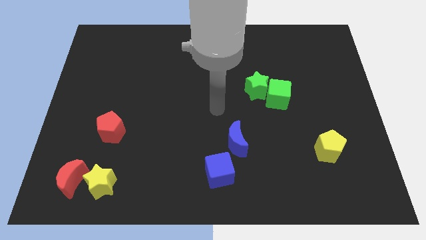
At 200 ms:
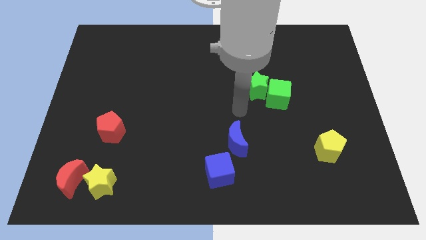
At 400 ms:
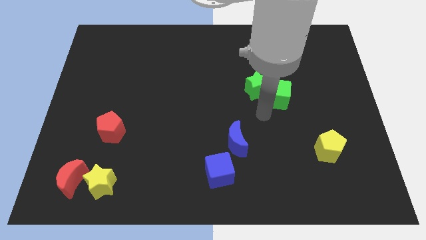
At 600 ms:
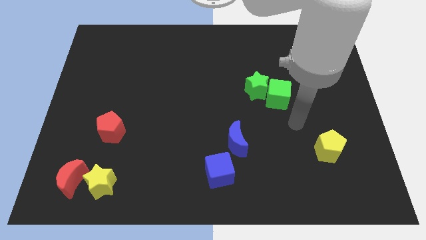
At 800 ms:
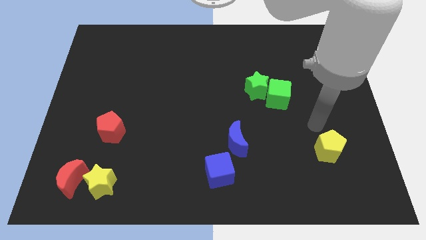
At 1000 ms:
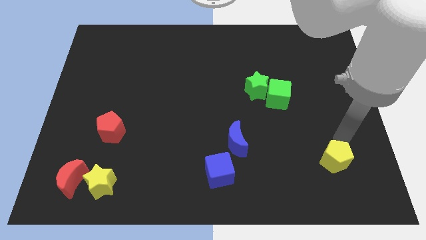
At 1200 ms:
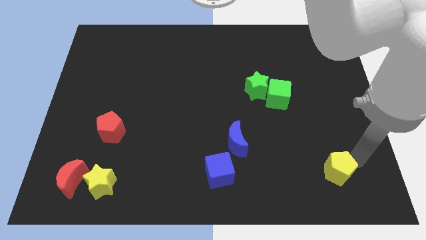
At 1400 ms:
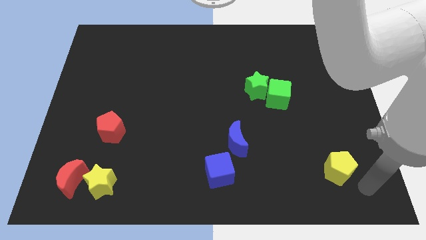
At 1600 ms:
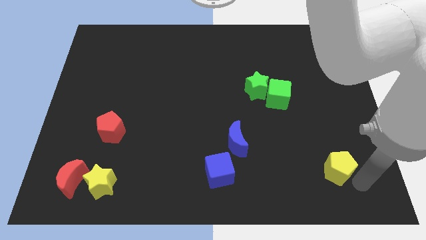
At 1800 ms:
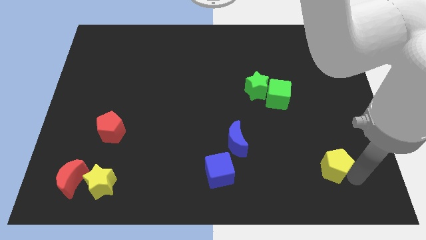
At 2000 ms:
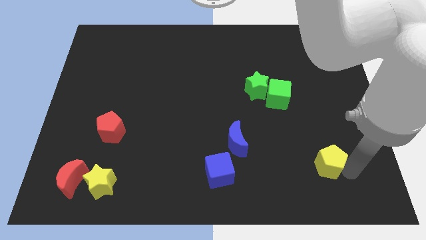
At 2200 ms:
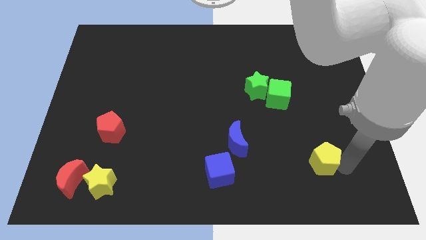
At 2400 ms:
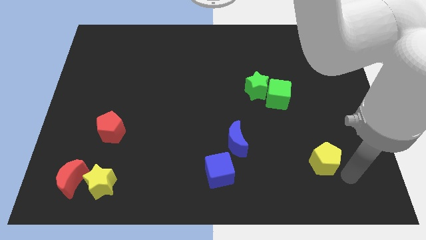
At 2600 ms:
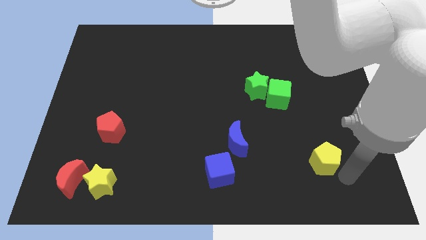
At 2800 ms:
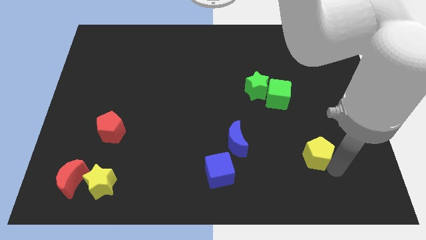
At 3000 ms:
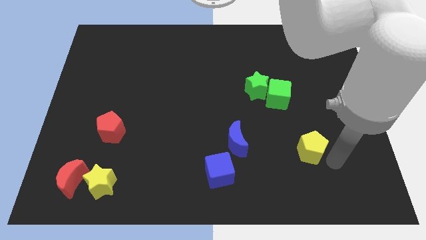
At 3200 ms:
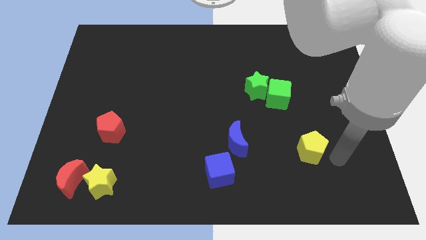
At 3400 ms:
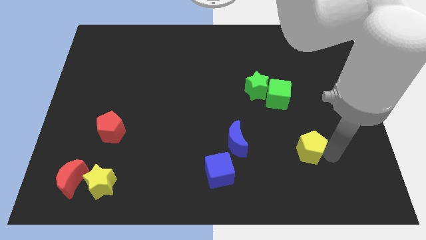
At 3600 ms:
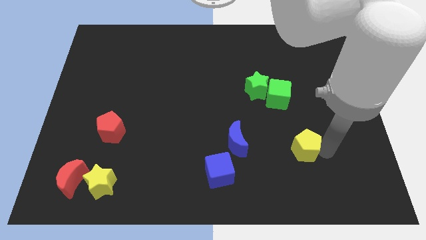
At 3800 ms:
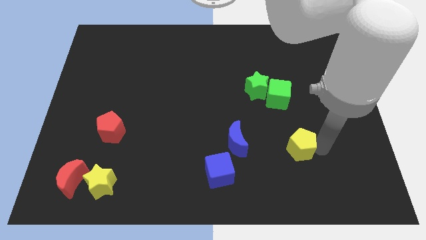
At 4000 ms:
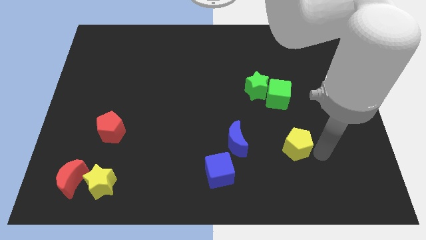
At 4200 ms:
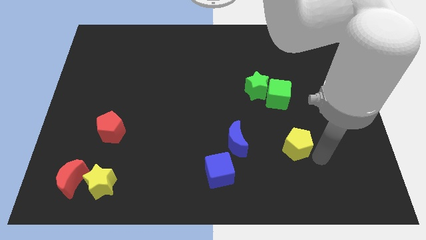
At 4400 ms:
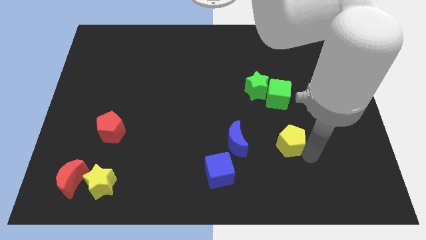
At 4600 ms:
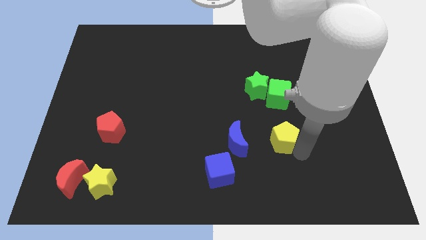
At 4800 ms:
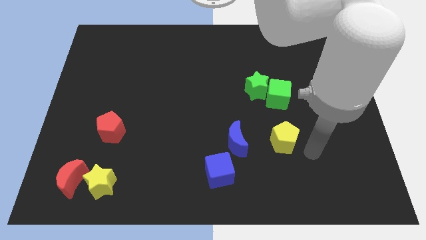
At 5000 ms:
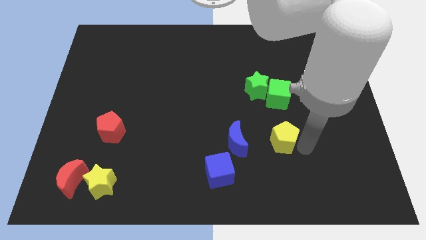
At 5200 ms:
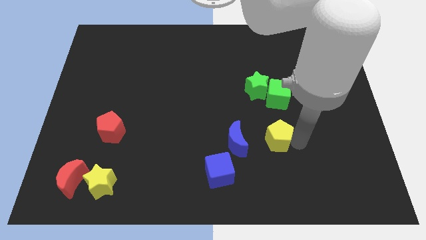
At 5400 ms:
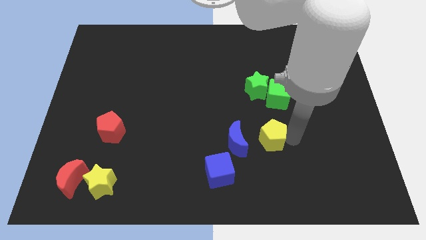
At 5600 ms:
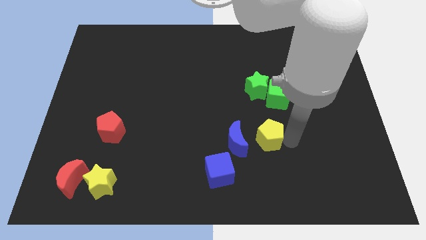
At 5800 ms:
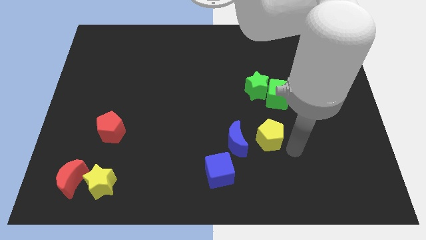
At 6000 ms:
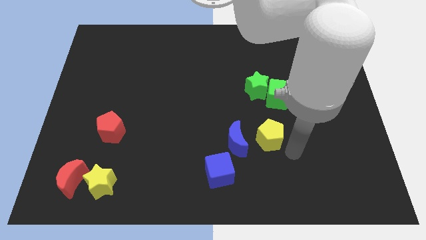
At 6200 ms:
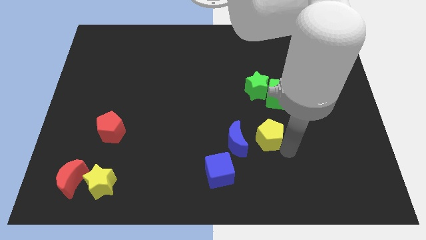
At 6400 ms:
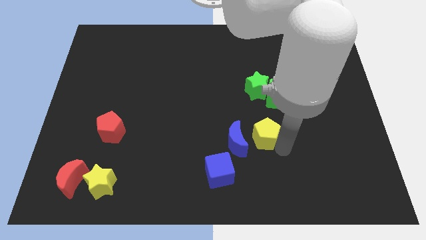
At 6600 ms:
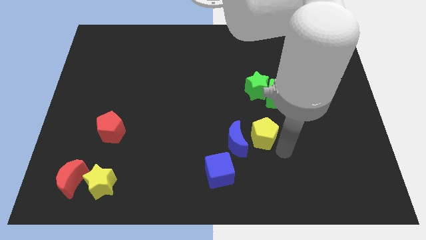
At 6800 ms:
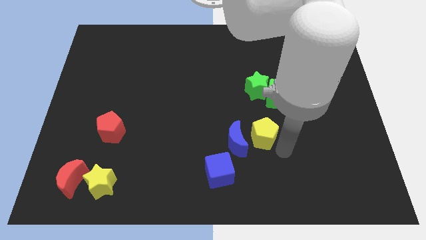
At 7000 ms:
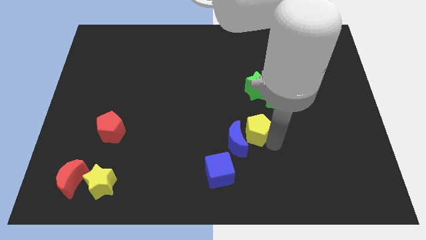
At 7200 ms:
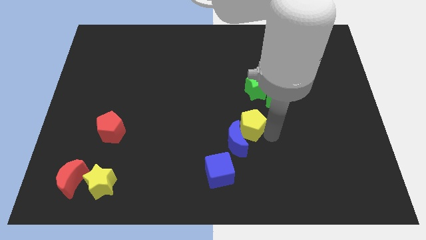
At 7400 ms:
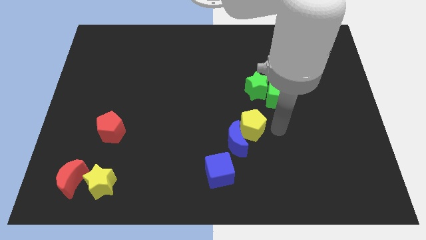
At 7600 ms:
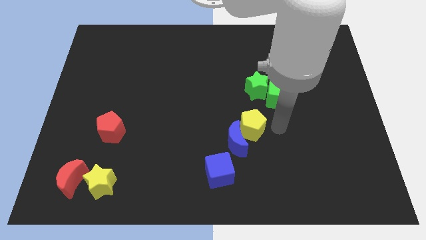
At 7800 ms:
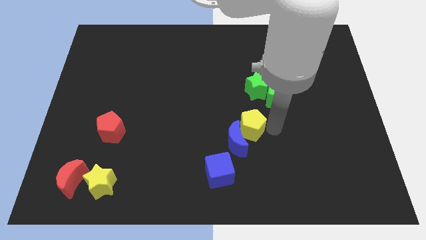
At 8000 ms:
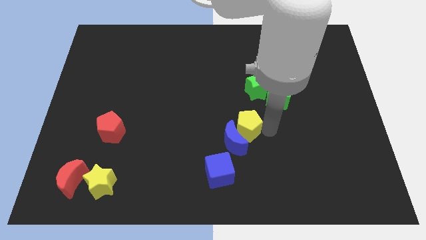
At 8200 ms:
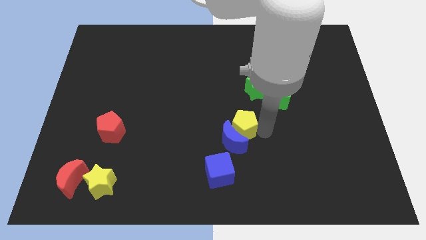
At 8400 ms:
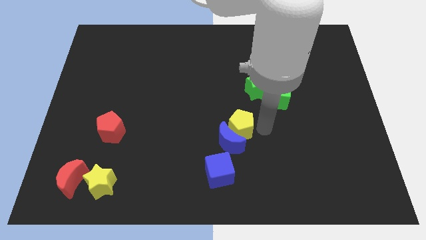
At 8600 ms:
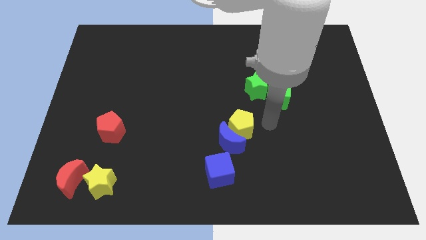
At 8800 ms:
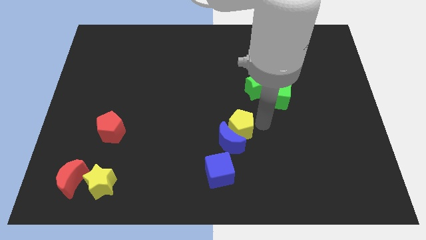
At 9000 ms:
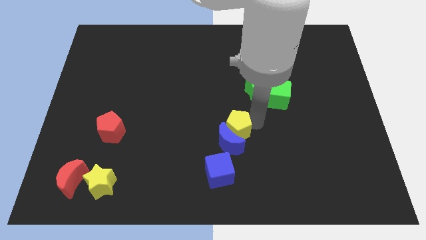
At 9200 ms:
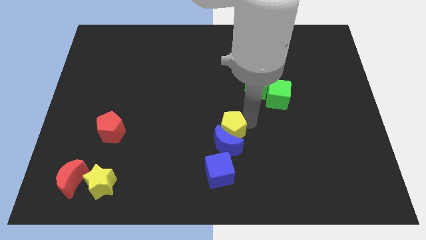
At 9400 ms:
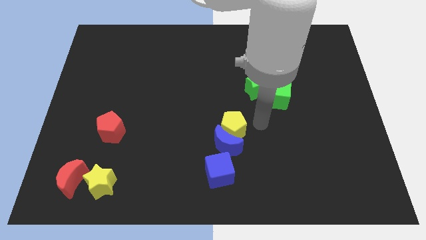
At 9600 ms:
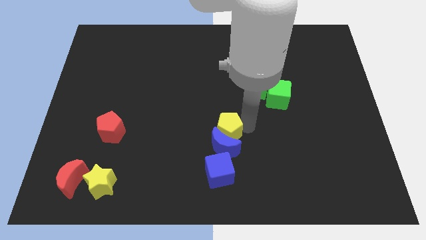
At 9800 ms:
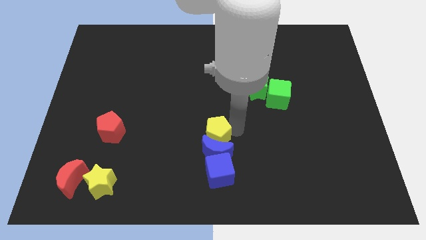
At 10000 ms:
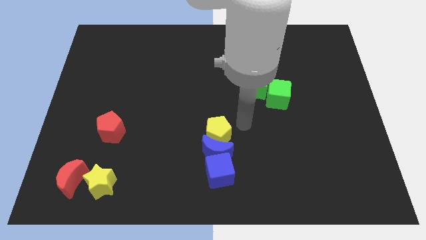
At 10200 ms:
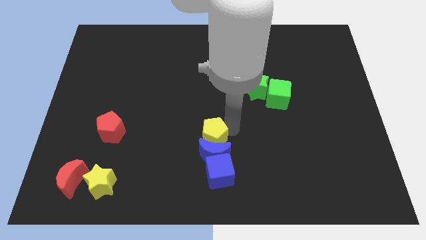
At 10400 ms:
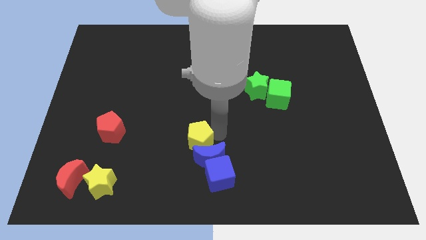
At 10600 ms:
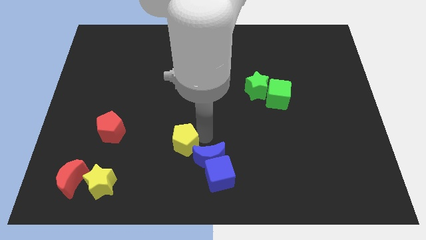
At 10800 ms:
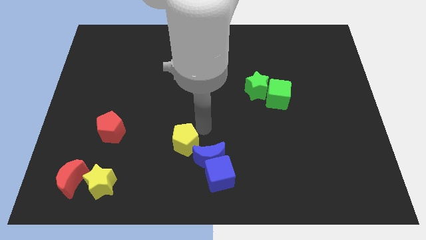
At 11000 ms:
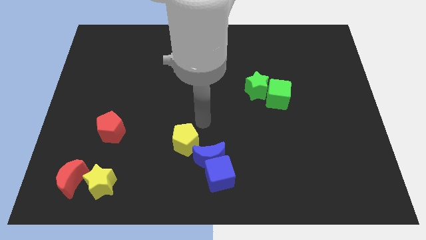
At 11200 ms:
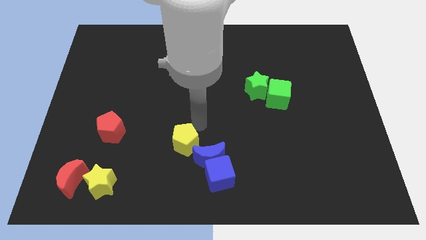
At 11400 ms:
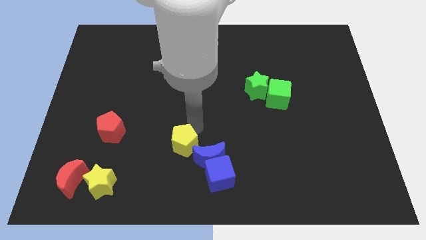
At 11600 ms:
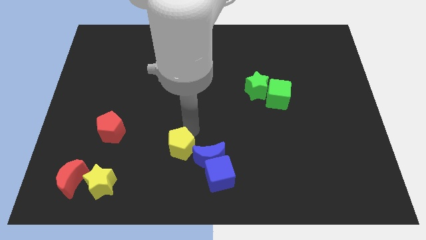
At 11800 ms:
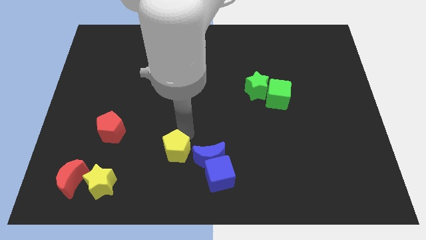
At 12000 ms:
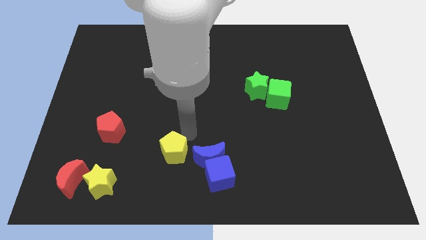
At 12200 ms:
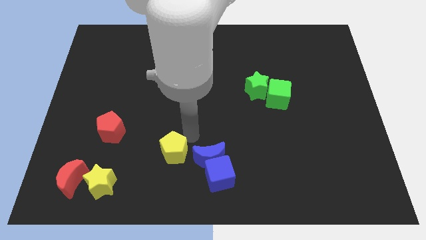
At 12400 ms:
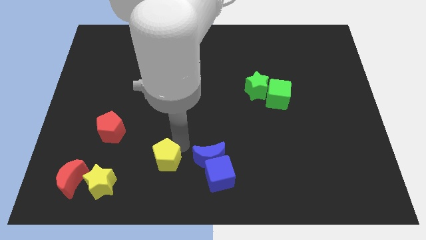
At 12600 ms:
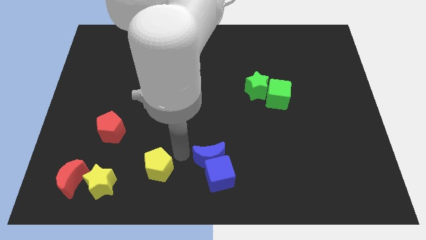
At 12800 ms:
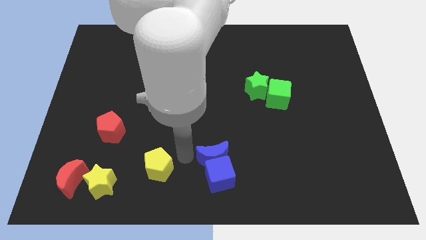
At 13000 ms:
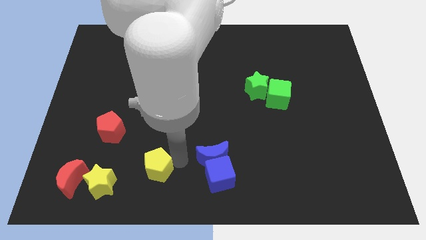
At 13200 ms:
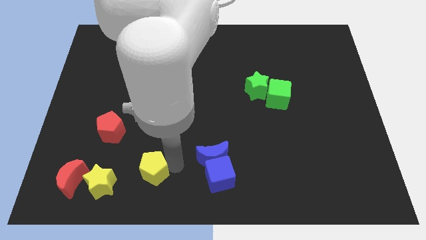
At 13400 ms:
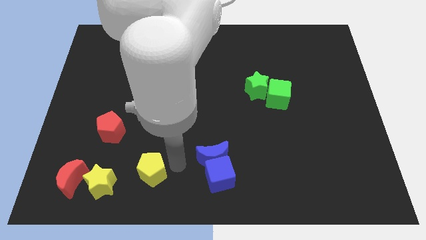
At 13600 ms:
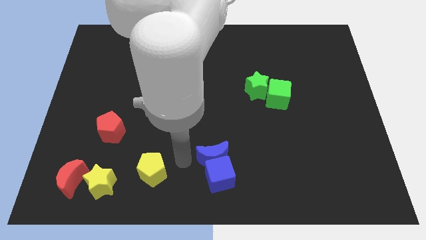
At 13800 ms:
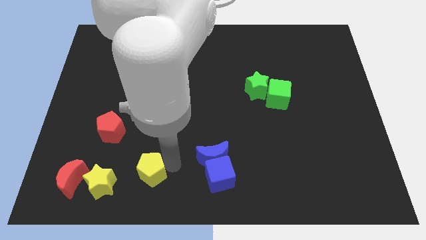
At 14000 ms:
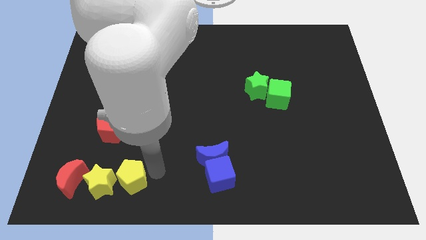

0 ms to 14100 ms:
move the yellow pentagon towards the yellow star
